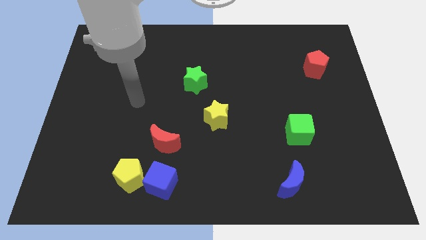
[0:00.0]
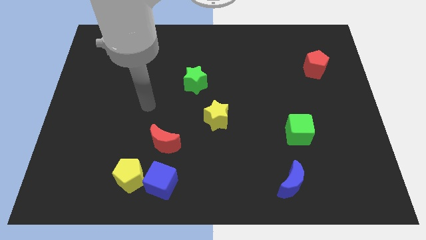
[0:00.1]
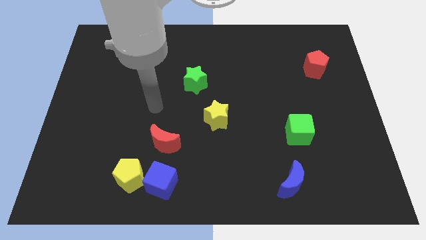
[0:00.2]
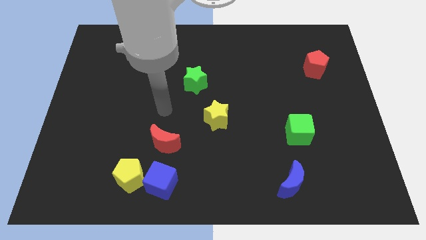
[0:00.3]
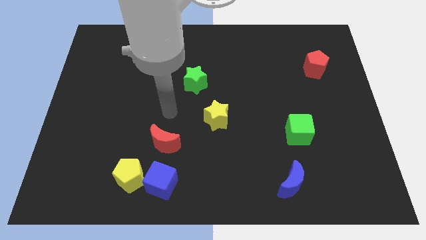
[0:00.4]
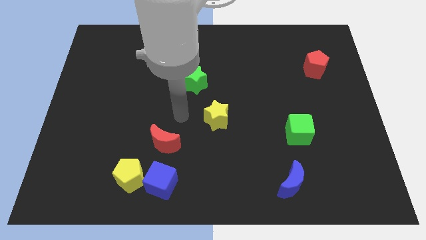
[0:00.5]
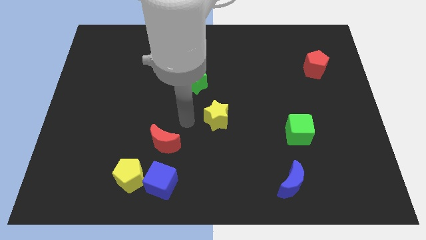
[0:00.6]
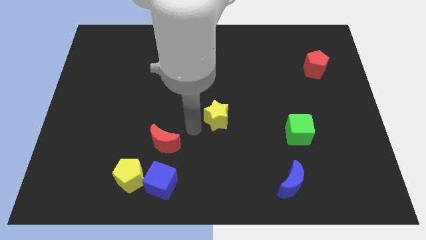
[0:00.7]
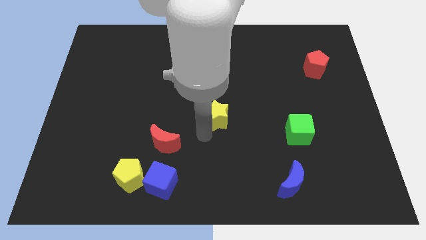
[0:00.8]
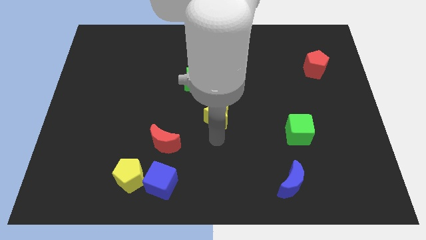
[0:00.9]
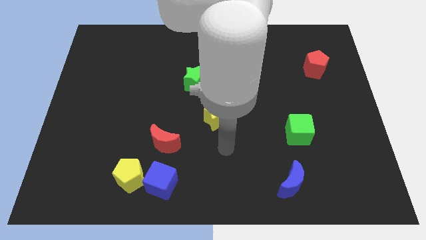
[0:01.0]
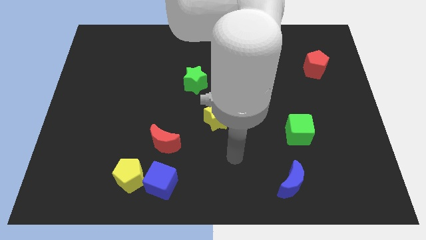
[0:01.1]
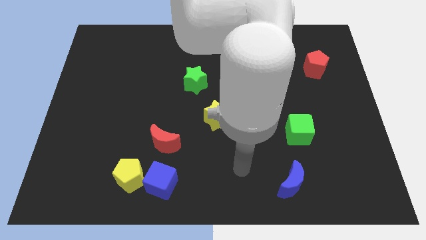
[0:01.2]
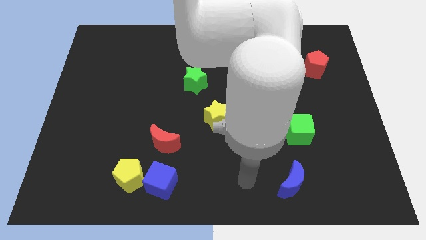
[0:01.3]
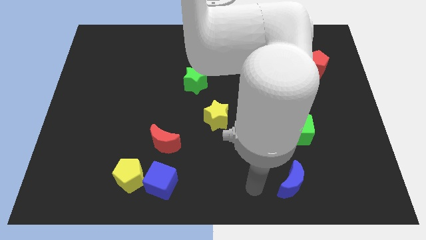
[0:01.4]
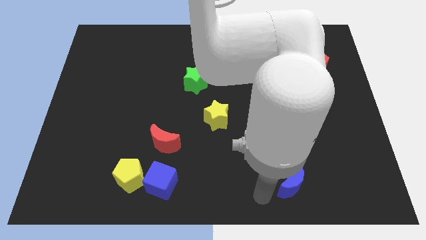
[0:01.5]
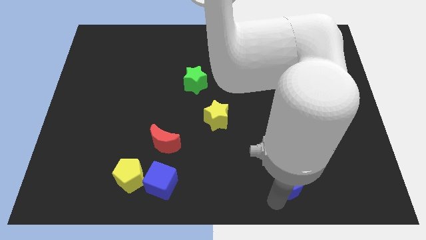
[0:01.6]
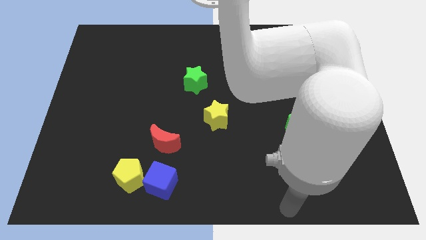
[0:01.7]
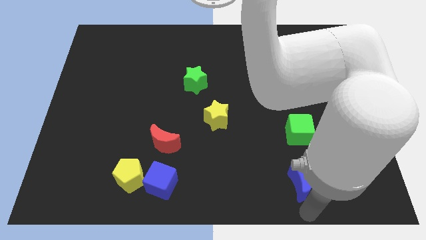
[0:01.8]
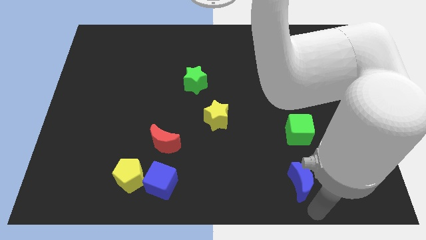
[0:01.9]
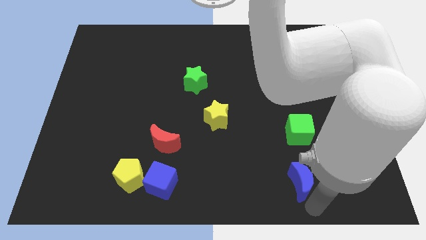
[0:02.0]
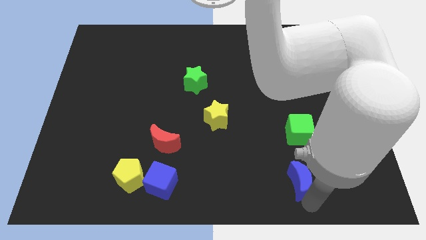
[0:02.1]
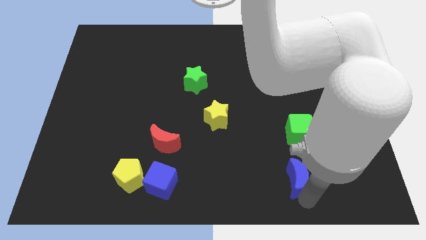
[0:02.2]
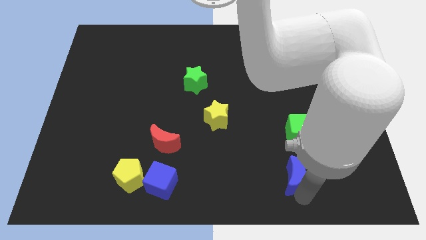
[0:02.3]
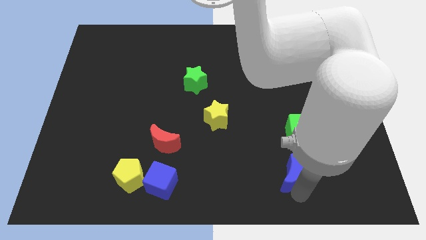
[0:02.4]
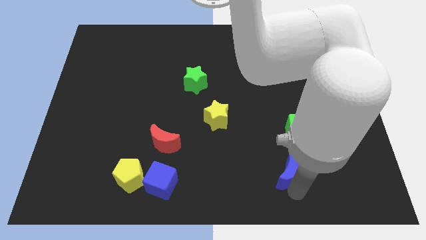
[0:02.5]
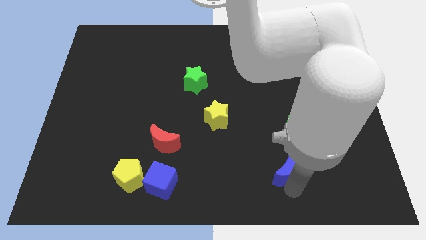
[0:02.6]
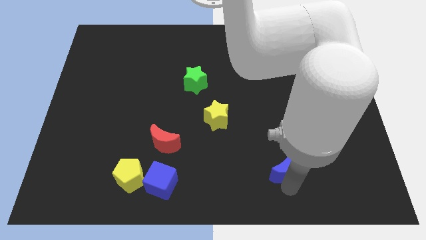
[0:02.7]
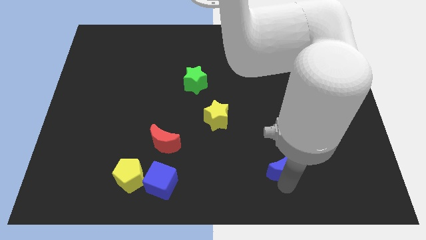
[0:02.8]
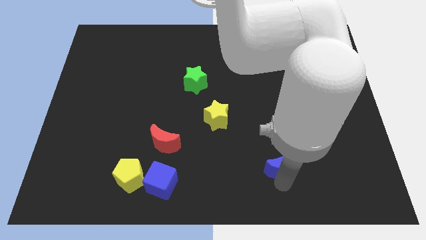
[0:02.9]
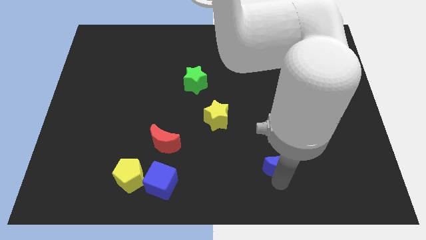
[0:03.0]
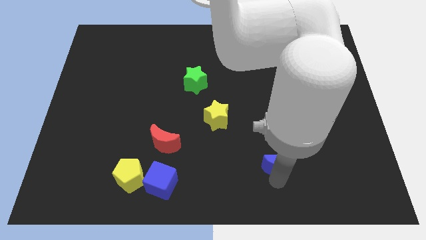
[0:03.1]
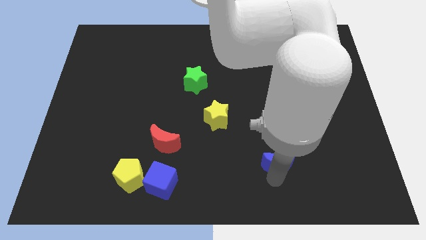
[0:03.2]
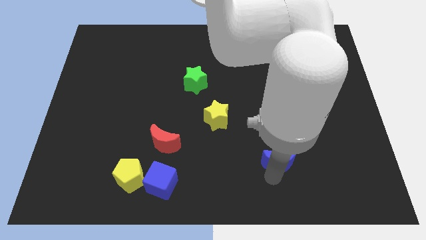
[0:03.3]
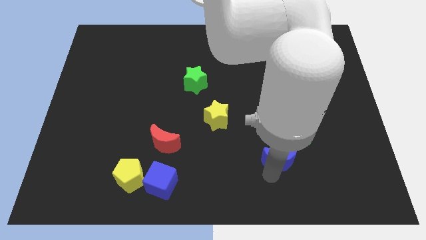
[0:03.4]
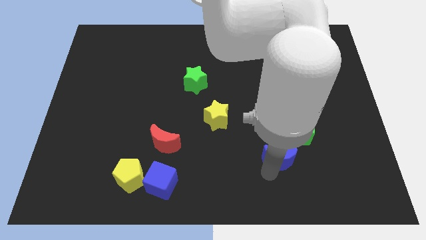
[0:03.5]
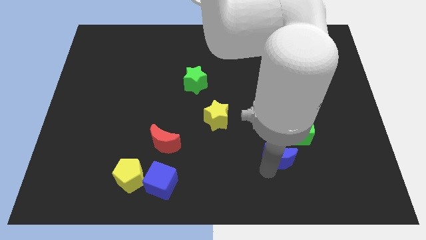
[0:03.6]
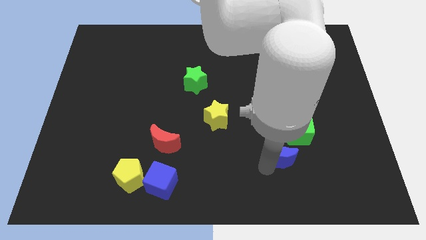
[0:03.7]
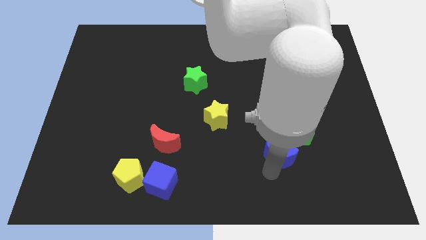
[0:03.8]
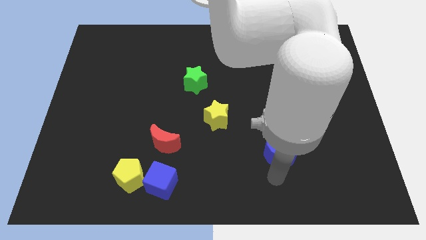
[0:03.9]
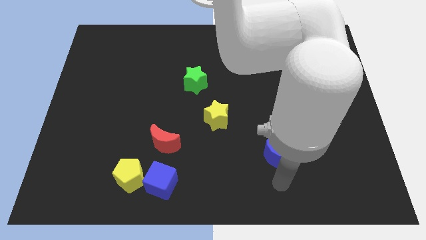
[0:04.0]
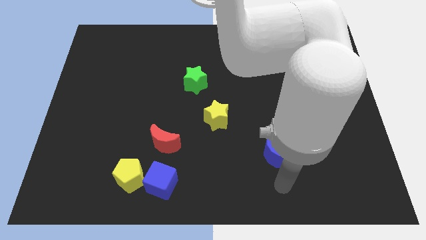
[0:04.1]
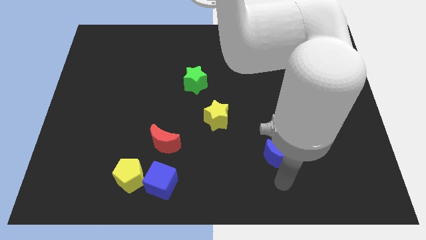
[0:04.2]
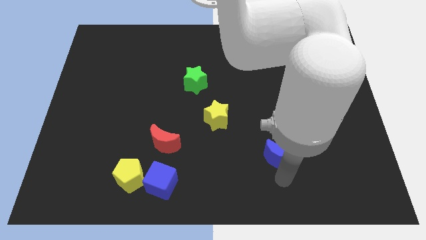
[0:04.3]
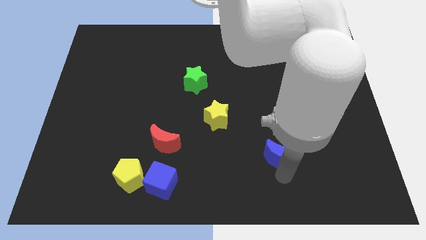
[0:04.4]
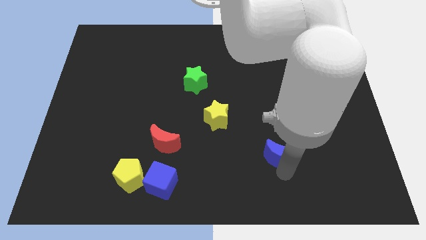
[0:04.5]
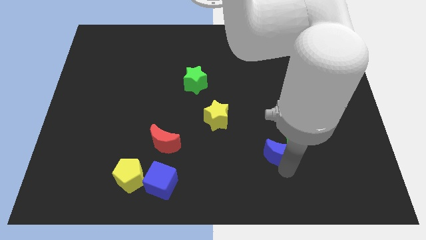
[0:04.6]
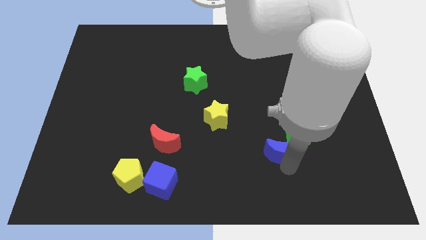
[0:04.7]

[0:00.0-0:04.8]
move the blue moon upwards slightly

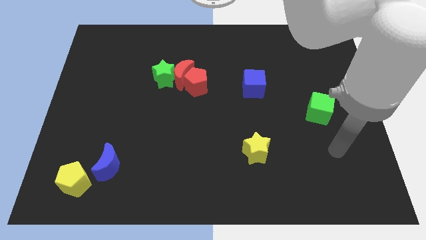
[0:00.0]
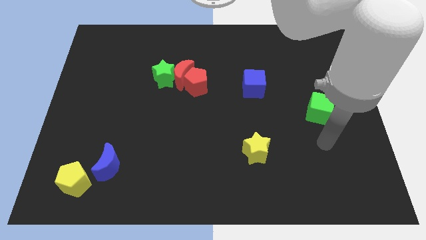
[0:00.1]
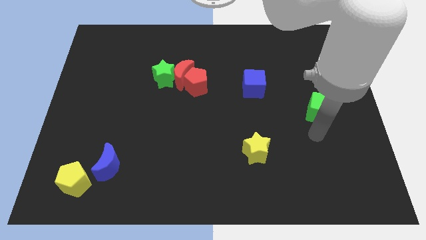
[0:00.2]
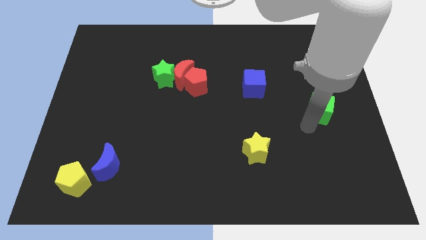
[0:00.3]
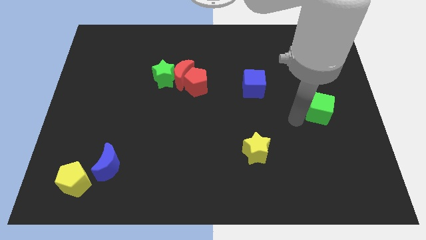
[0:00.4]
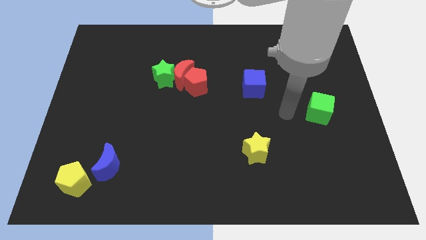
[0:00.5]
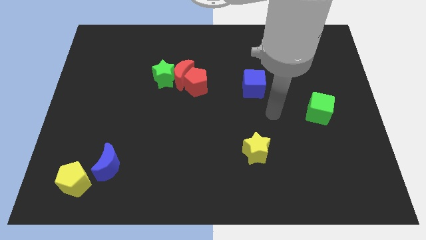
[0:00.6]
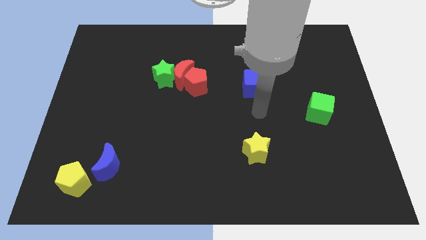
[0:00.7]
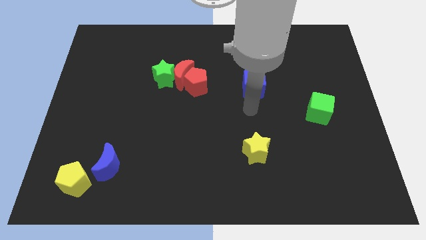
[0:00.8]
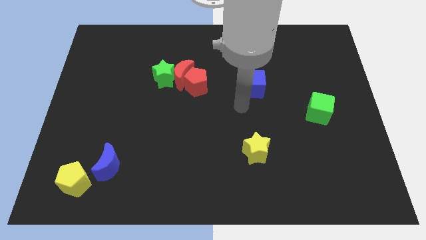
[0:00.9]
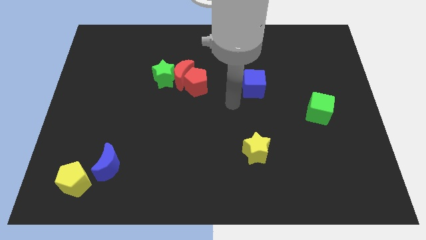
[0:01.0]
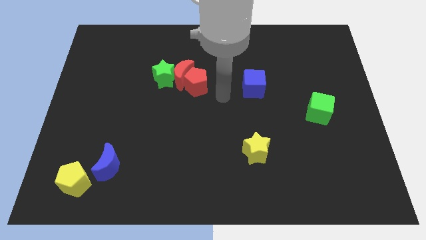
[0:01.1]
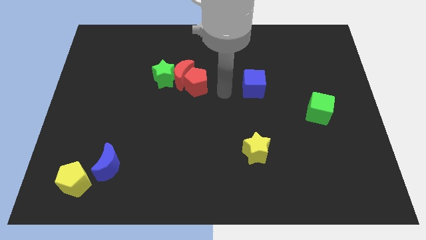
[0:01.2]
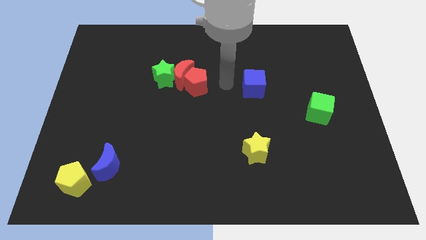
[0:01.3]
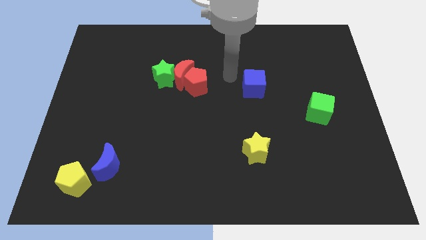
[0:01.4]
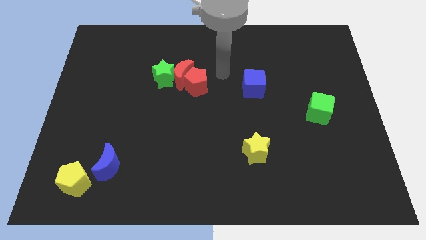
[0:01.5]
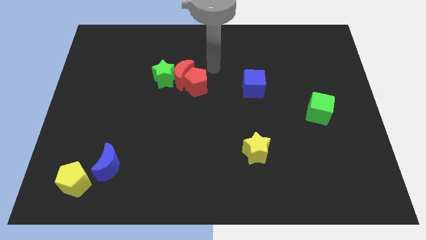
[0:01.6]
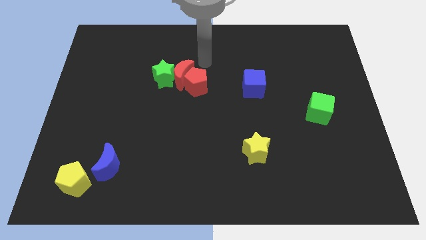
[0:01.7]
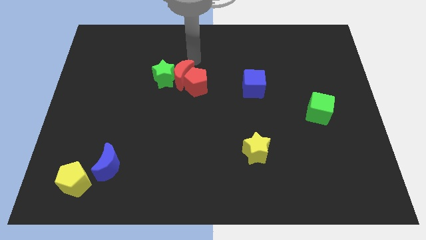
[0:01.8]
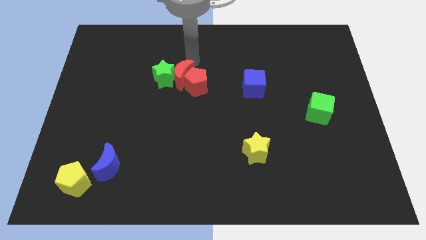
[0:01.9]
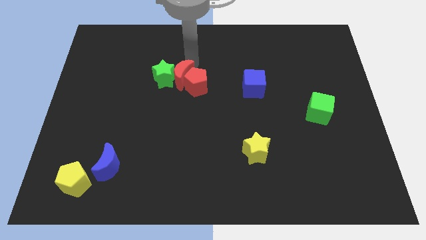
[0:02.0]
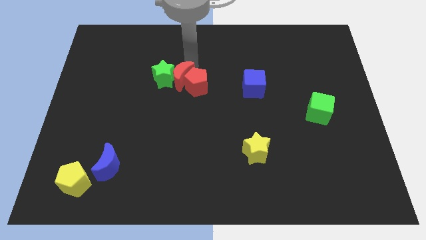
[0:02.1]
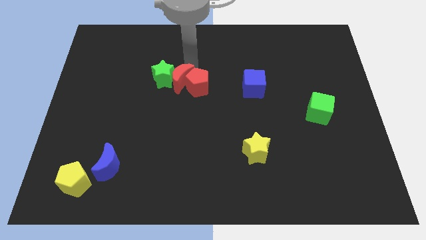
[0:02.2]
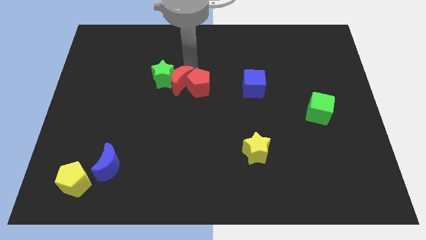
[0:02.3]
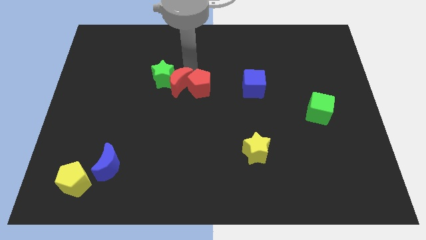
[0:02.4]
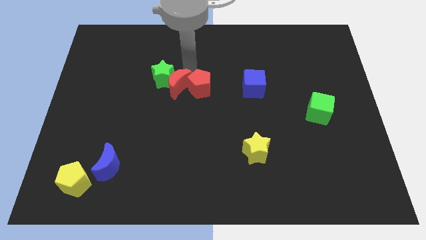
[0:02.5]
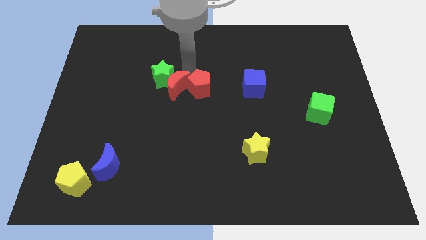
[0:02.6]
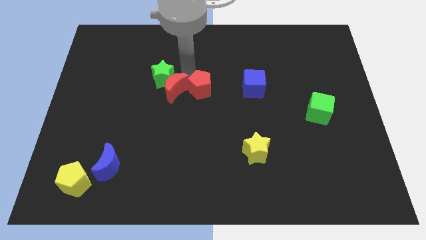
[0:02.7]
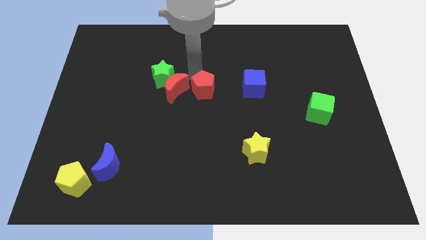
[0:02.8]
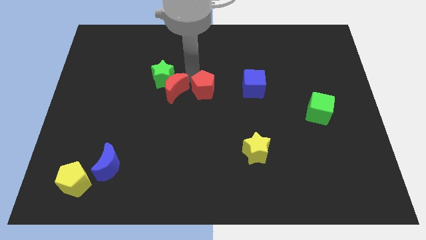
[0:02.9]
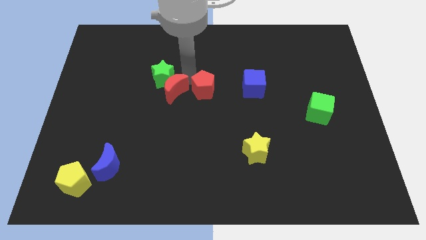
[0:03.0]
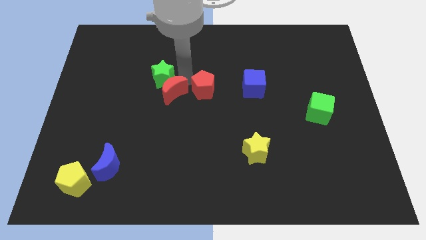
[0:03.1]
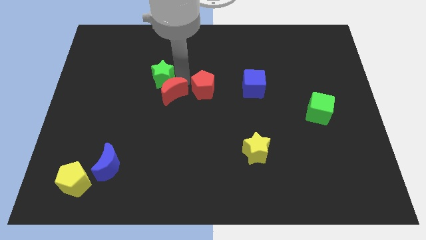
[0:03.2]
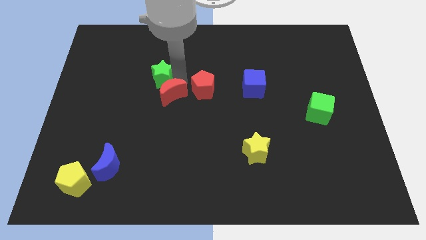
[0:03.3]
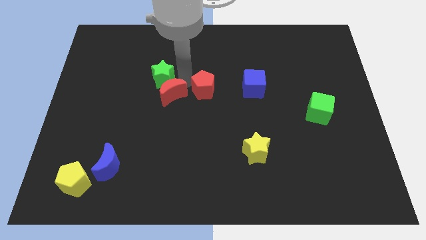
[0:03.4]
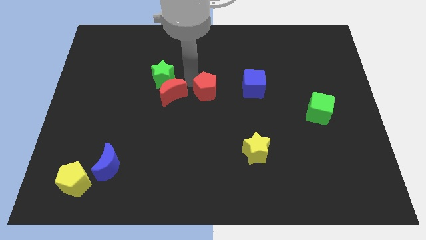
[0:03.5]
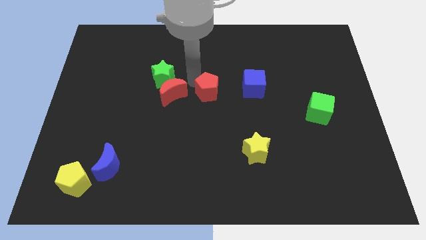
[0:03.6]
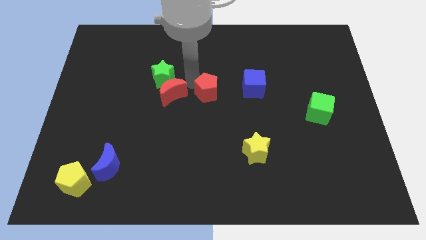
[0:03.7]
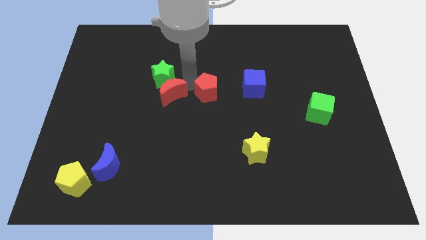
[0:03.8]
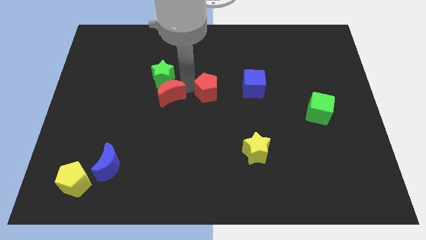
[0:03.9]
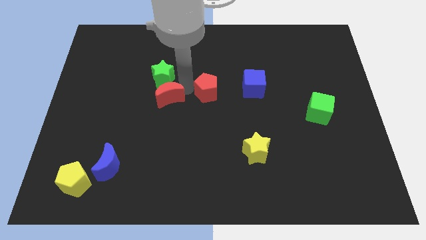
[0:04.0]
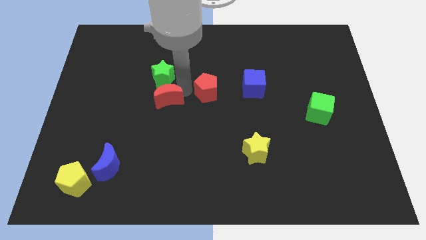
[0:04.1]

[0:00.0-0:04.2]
slightly move the red moon down and left
